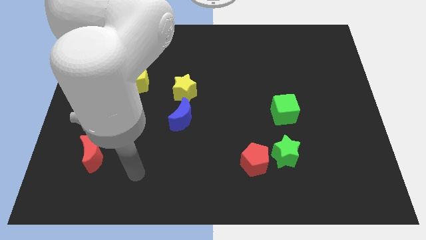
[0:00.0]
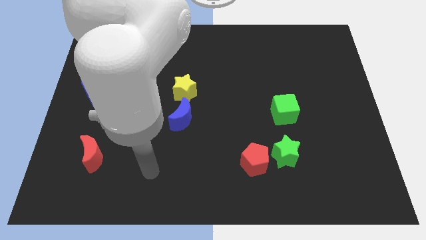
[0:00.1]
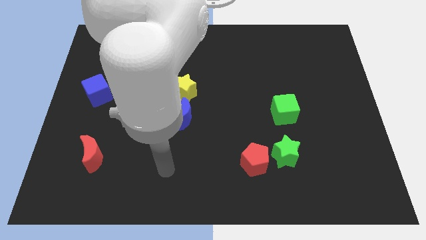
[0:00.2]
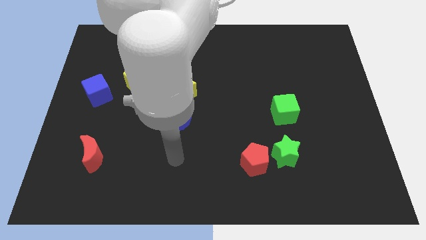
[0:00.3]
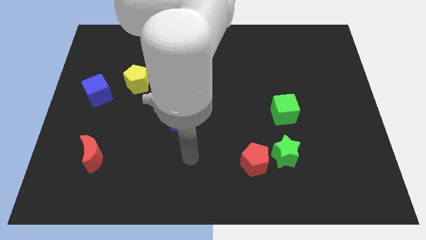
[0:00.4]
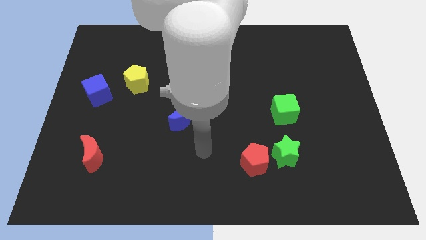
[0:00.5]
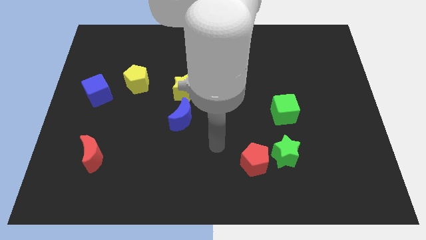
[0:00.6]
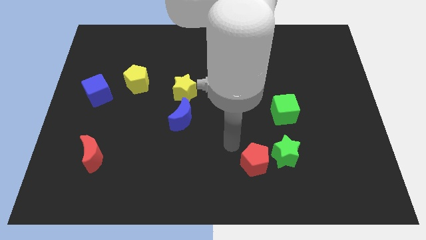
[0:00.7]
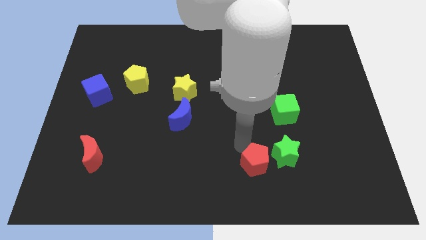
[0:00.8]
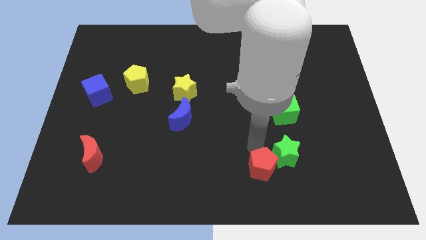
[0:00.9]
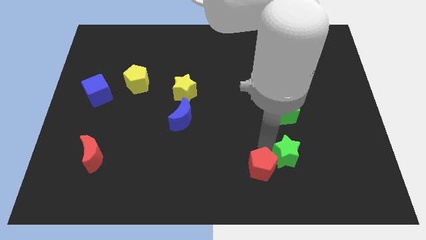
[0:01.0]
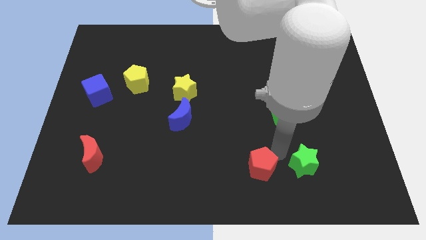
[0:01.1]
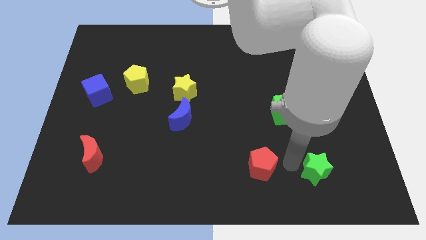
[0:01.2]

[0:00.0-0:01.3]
move the red pentagon away from the green star

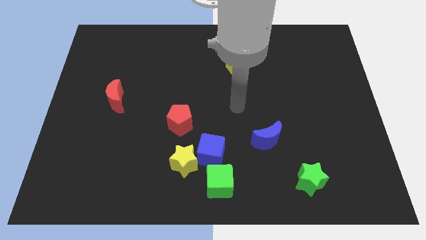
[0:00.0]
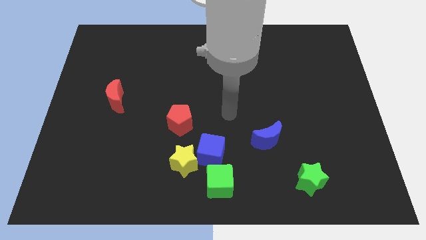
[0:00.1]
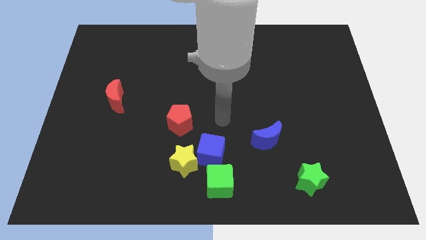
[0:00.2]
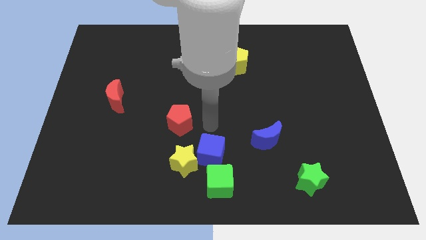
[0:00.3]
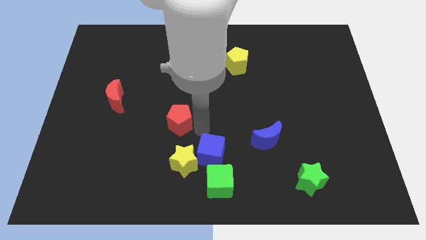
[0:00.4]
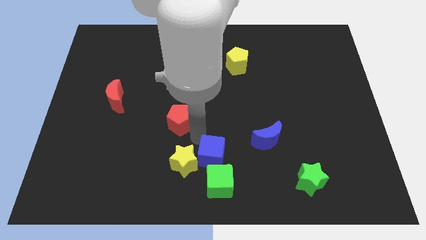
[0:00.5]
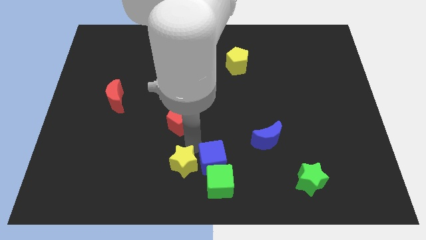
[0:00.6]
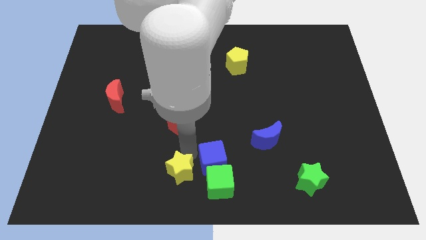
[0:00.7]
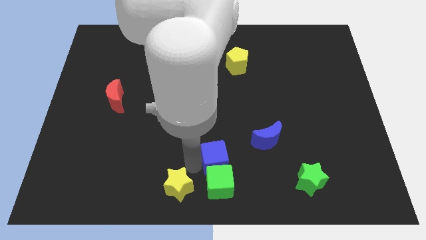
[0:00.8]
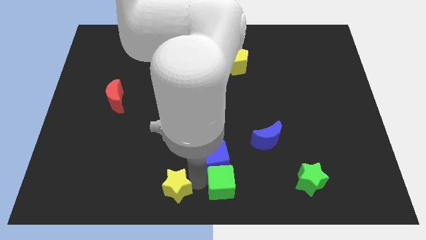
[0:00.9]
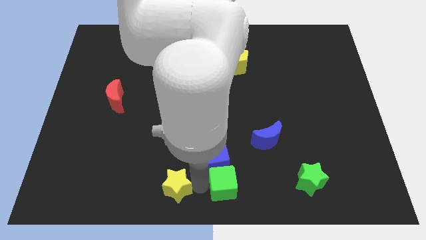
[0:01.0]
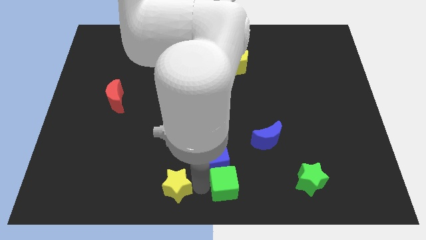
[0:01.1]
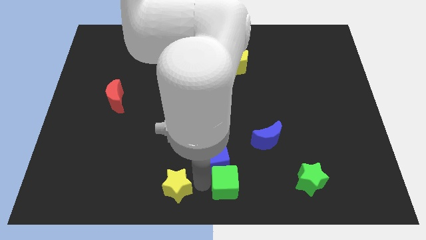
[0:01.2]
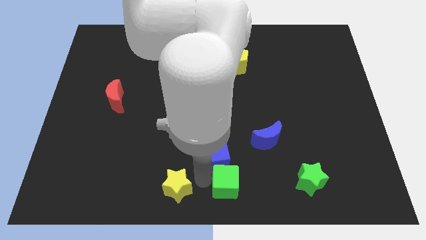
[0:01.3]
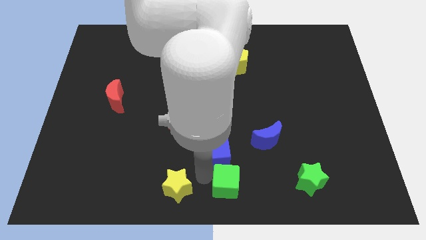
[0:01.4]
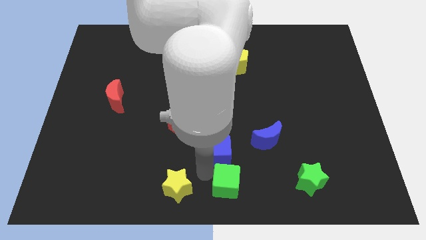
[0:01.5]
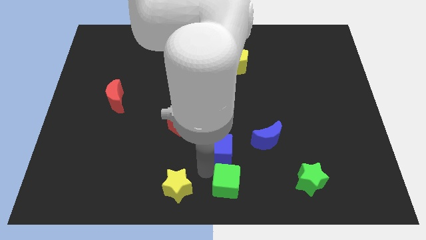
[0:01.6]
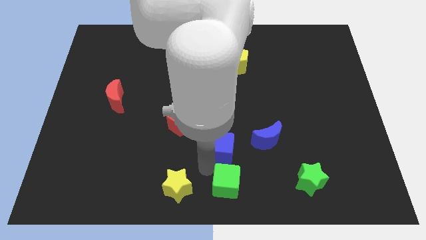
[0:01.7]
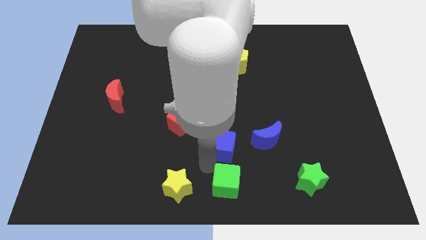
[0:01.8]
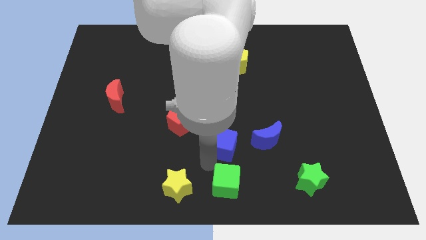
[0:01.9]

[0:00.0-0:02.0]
separate the blue cube from the yellow star and green cube

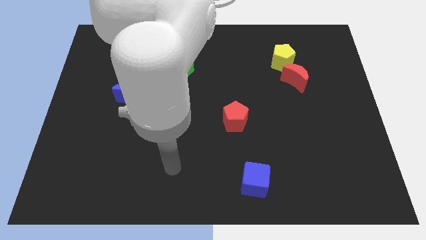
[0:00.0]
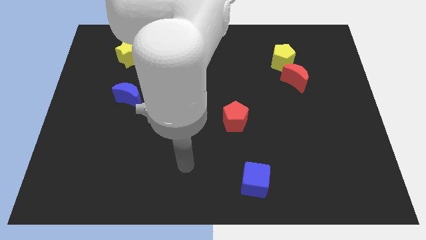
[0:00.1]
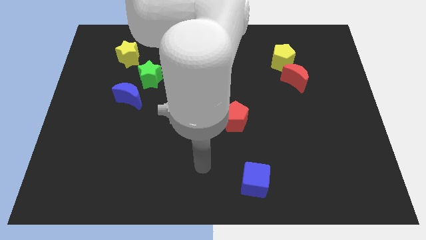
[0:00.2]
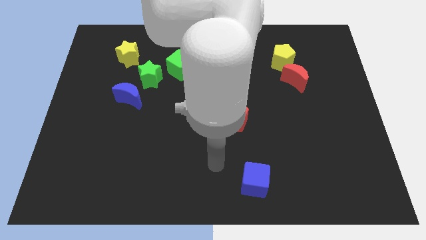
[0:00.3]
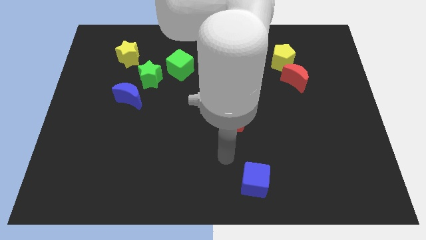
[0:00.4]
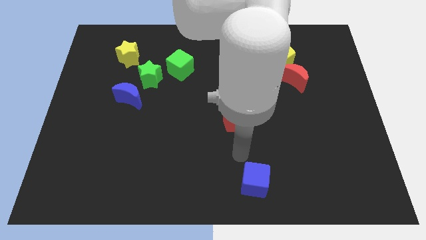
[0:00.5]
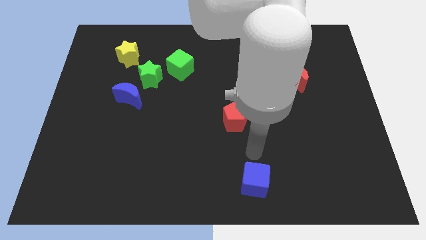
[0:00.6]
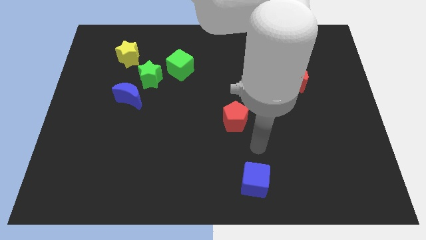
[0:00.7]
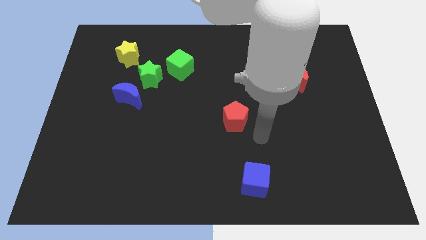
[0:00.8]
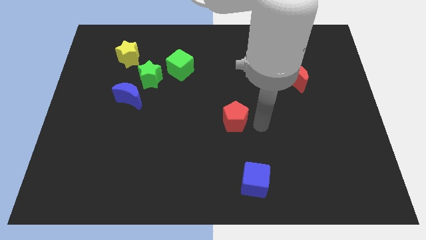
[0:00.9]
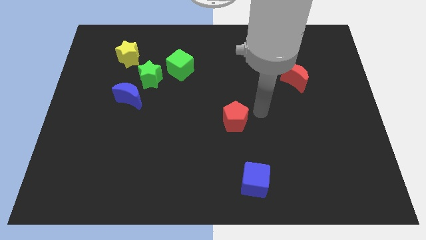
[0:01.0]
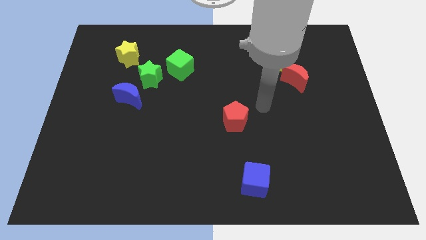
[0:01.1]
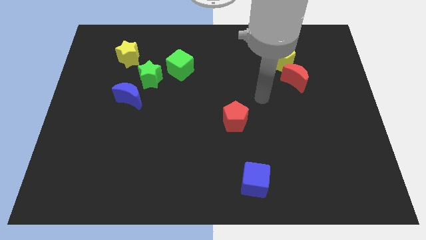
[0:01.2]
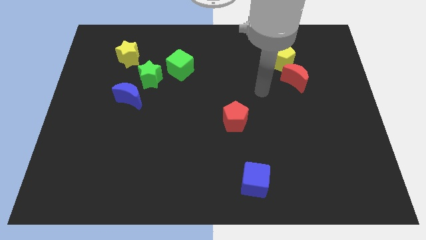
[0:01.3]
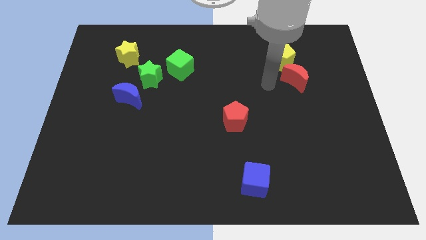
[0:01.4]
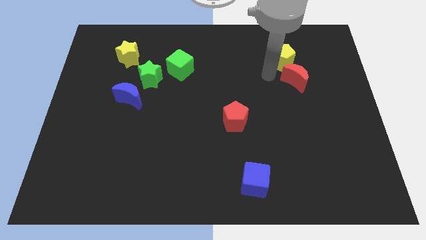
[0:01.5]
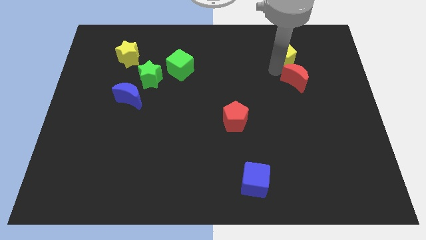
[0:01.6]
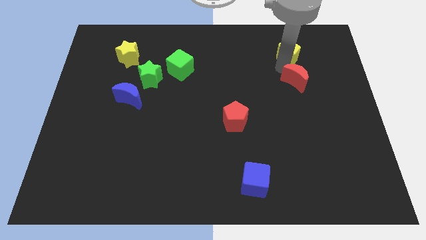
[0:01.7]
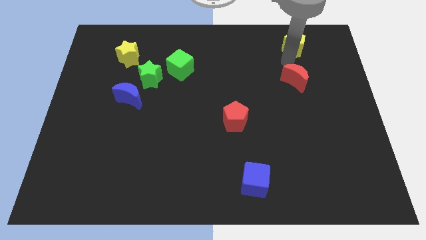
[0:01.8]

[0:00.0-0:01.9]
pull the red moon apart from the yellow pentagon

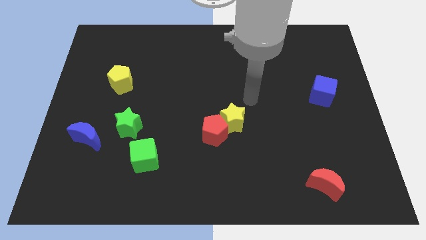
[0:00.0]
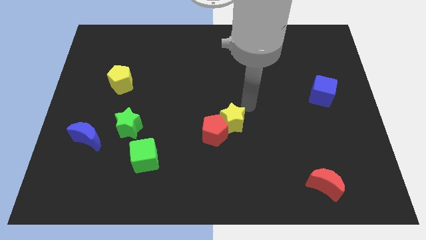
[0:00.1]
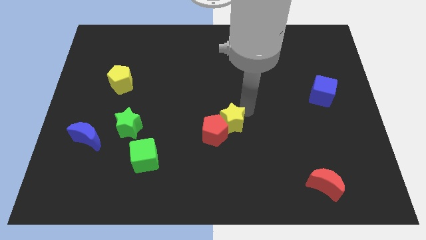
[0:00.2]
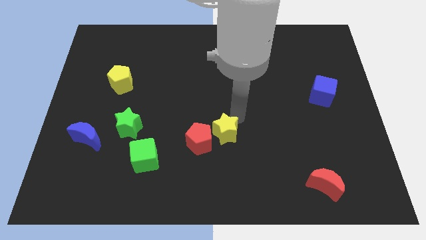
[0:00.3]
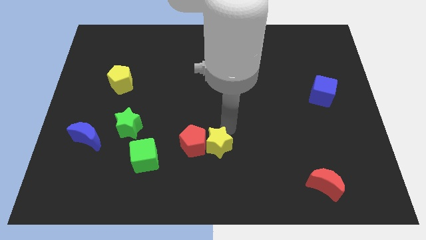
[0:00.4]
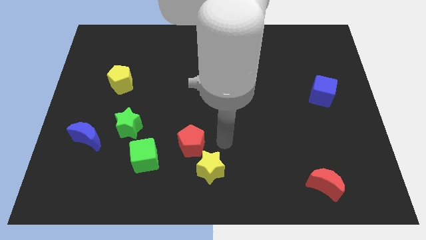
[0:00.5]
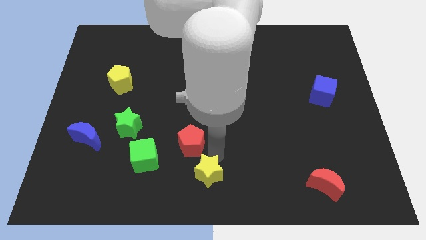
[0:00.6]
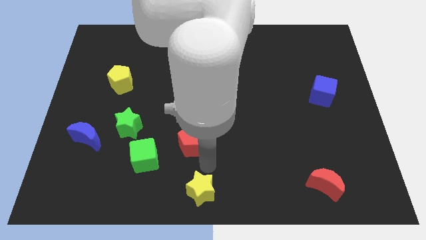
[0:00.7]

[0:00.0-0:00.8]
move the red pentagon away from the yellow star

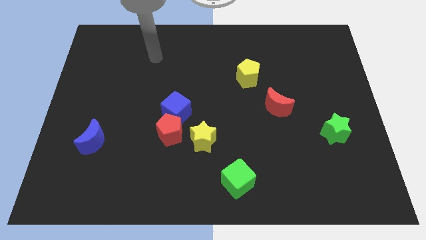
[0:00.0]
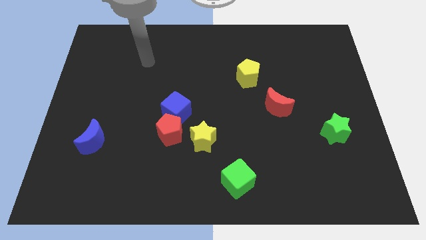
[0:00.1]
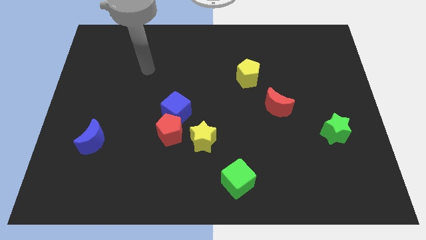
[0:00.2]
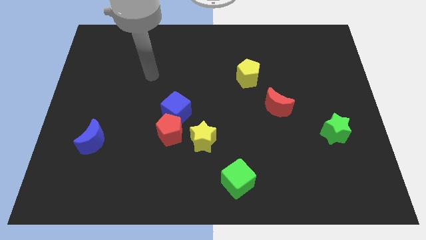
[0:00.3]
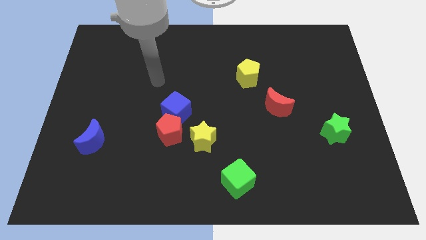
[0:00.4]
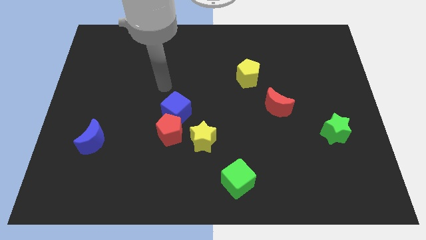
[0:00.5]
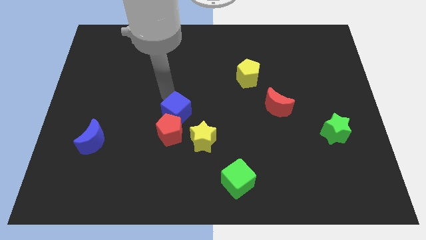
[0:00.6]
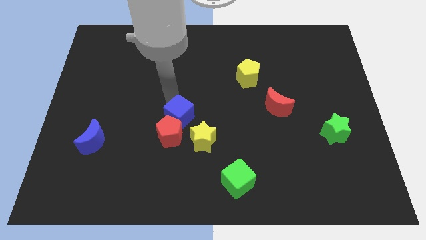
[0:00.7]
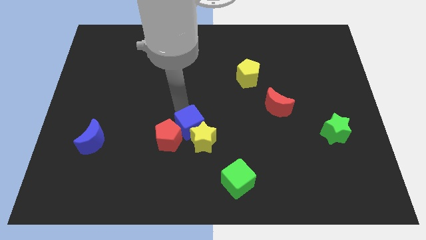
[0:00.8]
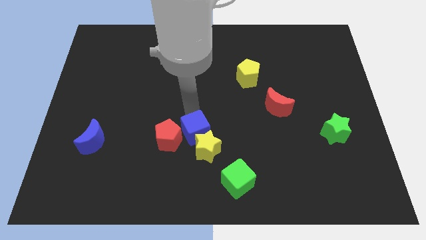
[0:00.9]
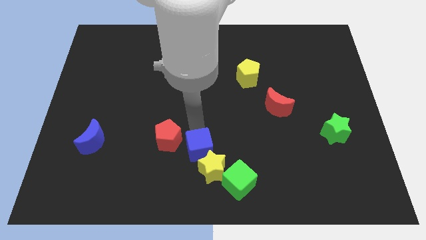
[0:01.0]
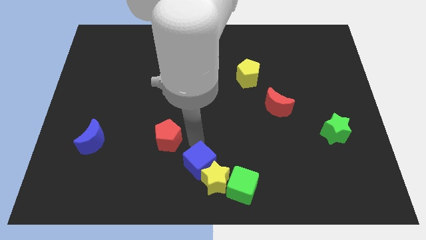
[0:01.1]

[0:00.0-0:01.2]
move the red pentagon away from the blue cube and yellow star

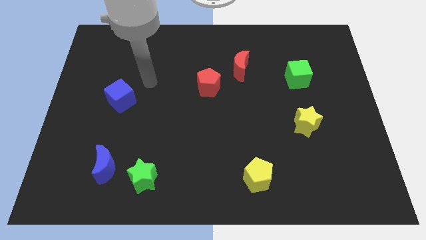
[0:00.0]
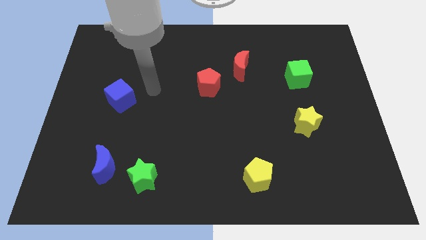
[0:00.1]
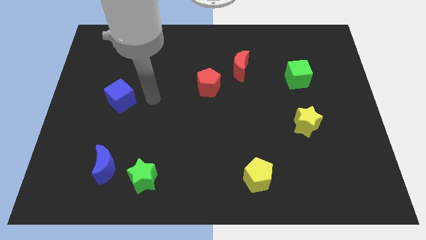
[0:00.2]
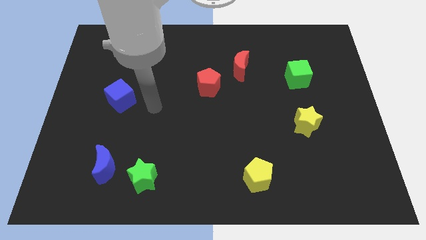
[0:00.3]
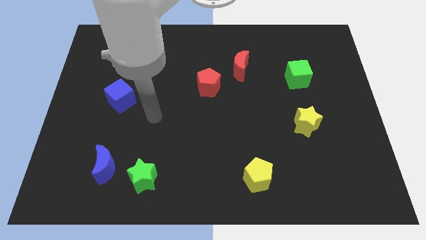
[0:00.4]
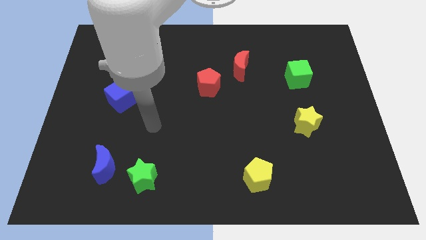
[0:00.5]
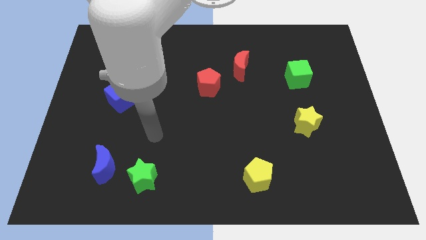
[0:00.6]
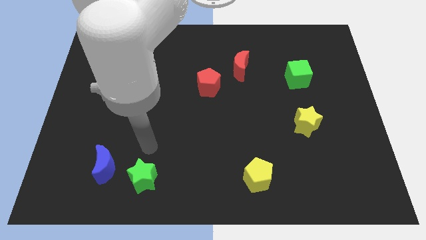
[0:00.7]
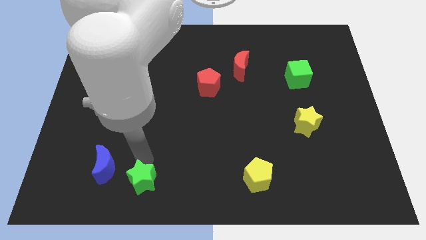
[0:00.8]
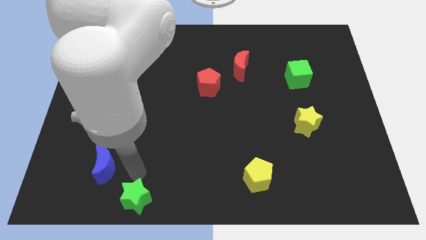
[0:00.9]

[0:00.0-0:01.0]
move the blue moon away from the green star

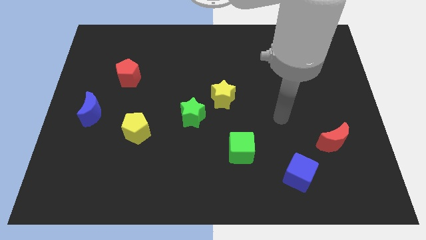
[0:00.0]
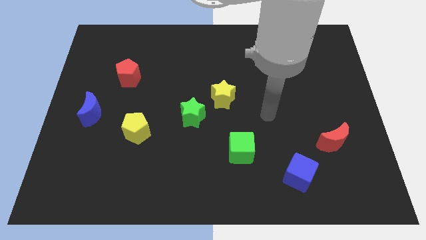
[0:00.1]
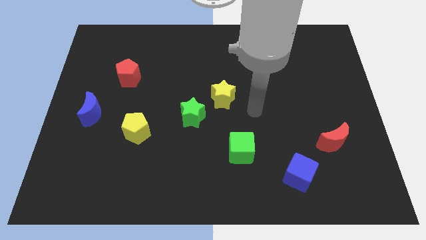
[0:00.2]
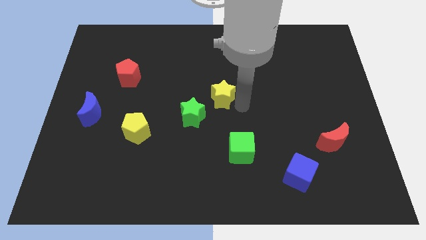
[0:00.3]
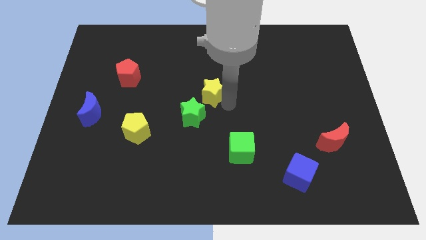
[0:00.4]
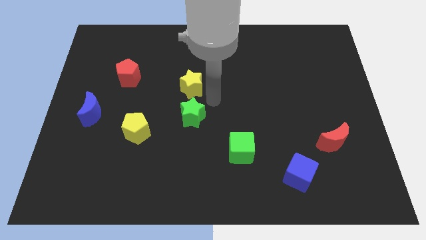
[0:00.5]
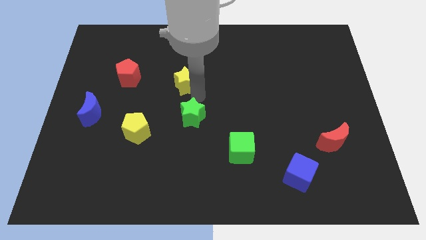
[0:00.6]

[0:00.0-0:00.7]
move the green star away from the yellow star

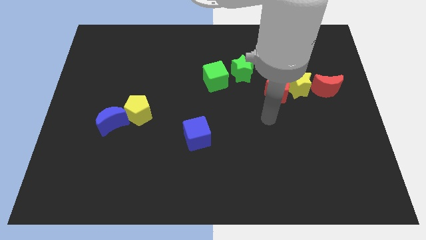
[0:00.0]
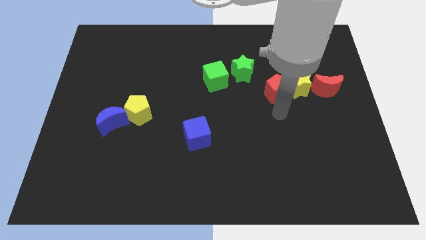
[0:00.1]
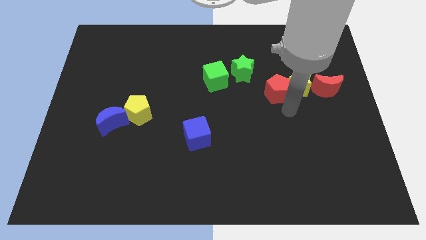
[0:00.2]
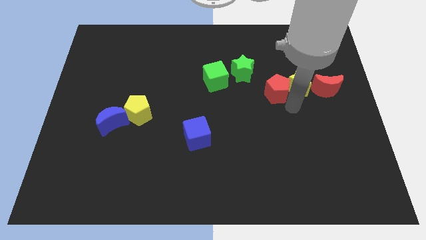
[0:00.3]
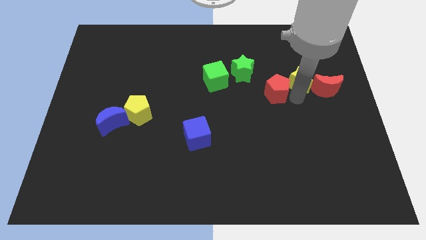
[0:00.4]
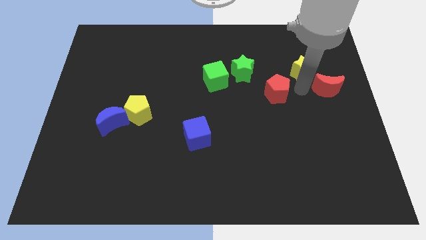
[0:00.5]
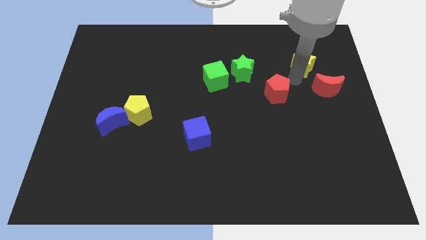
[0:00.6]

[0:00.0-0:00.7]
separate the red pentagon from the yellow star
